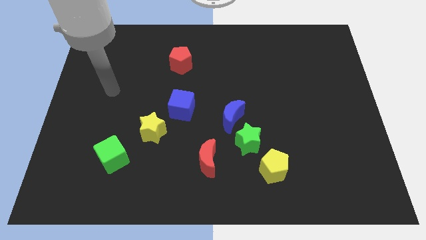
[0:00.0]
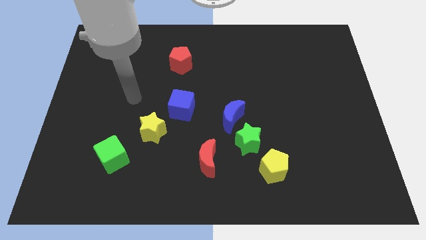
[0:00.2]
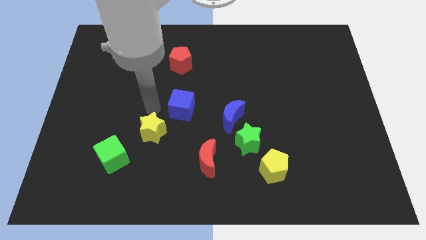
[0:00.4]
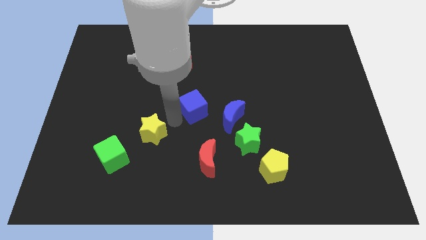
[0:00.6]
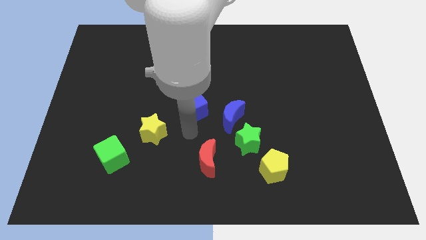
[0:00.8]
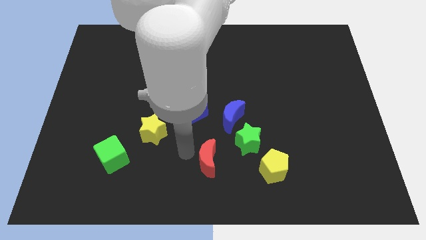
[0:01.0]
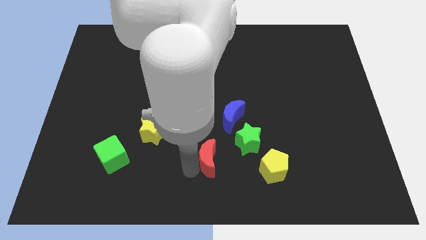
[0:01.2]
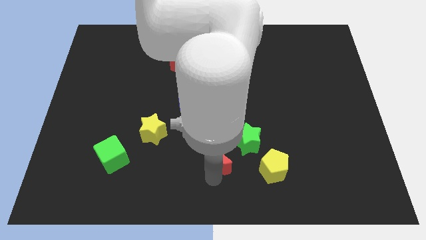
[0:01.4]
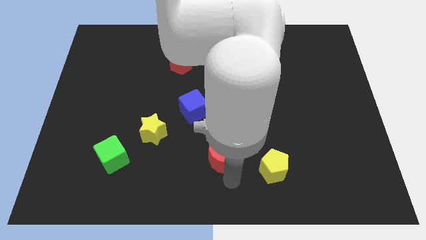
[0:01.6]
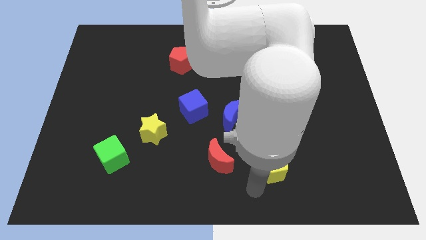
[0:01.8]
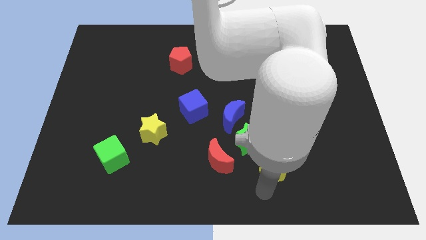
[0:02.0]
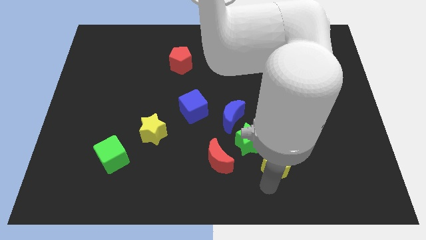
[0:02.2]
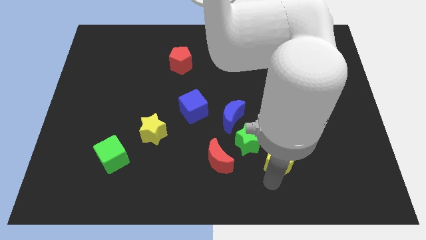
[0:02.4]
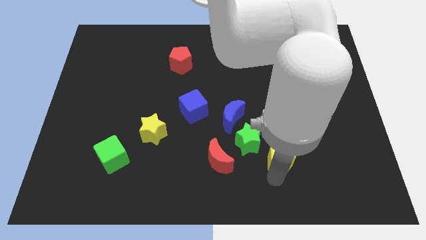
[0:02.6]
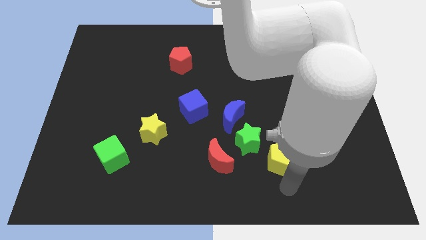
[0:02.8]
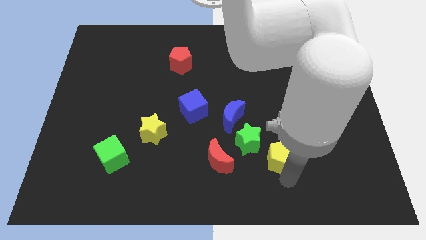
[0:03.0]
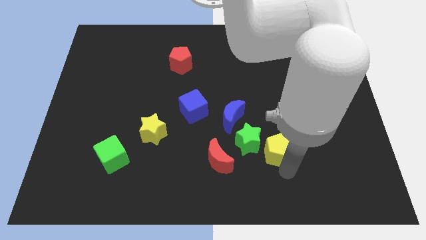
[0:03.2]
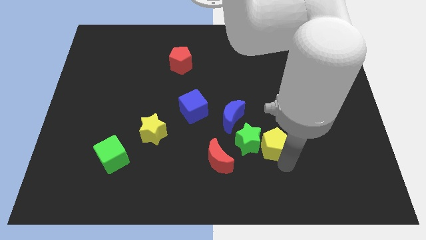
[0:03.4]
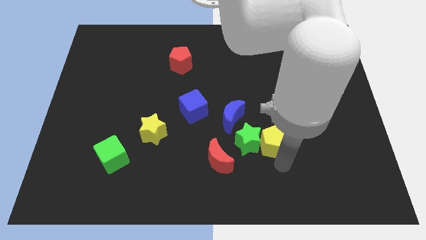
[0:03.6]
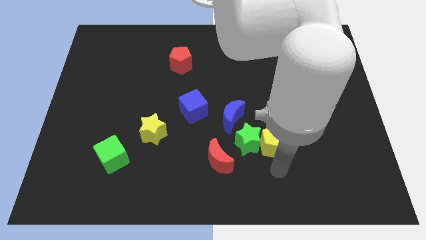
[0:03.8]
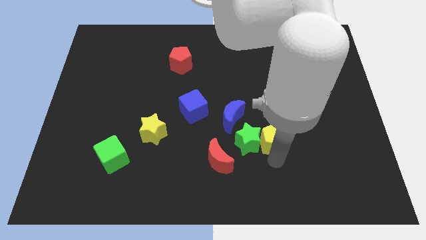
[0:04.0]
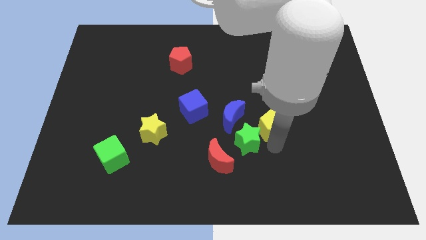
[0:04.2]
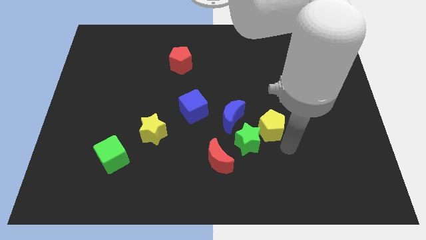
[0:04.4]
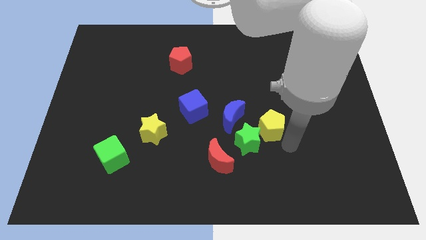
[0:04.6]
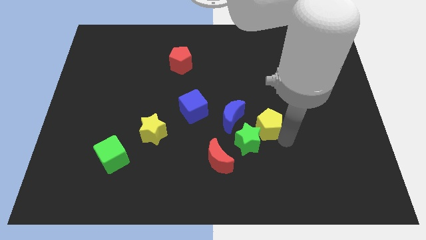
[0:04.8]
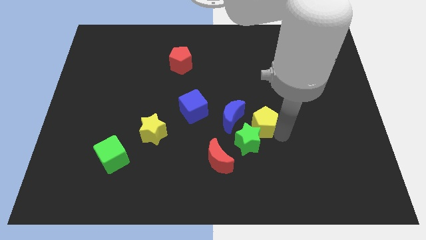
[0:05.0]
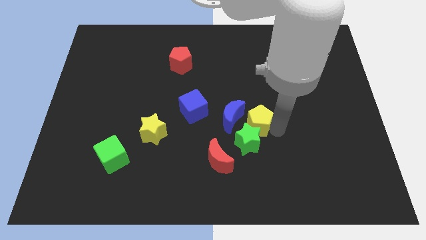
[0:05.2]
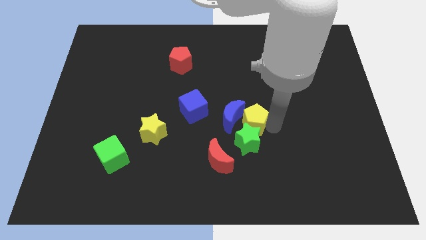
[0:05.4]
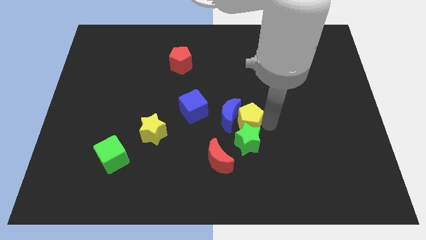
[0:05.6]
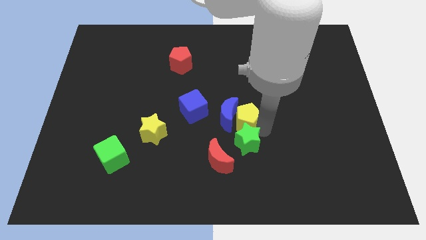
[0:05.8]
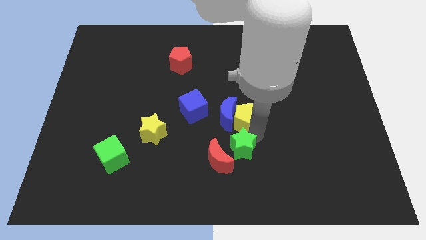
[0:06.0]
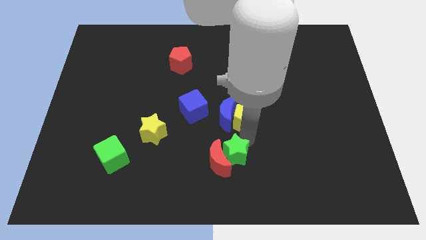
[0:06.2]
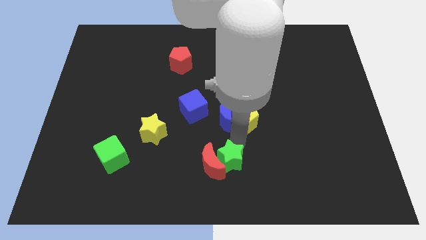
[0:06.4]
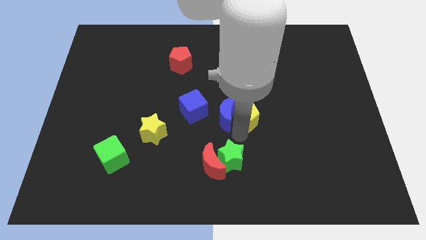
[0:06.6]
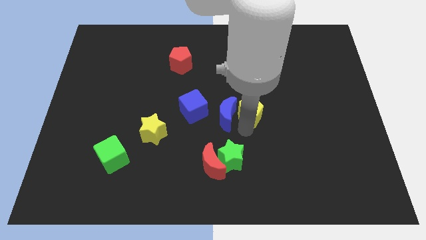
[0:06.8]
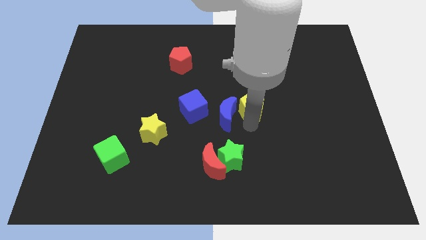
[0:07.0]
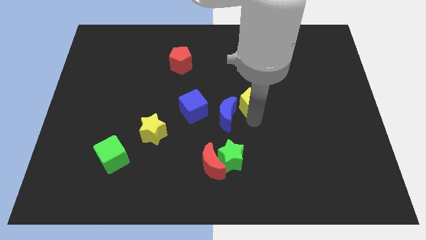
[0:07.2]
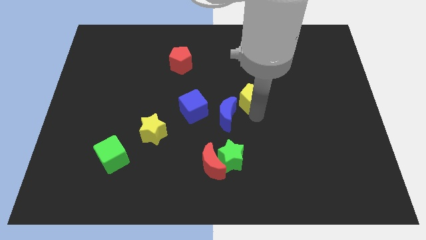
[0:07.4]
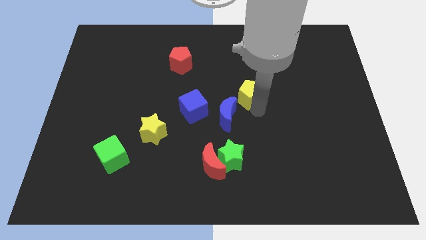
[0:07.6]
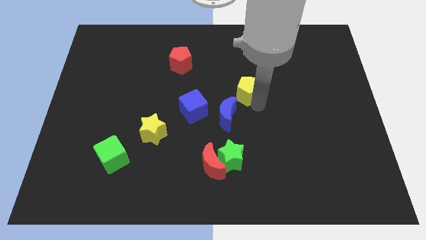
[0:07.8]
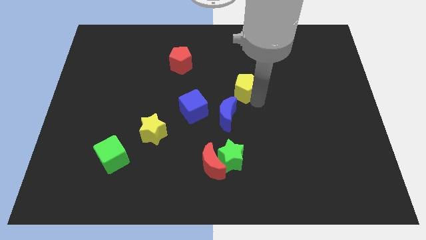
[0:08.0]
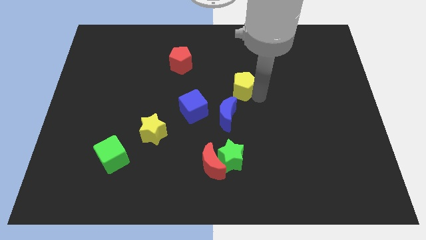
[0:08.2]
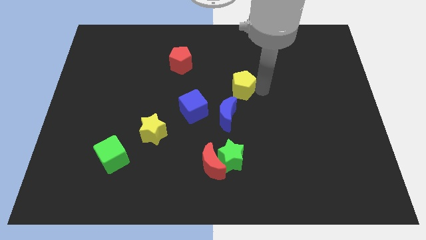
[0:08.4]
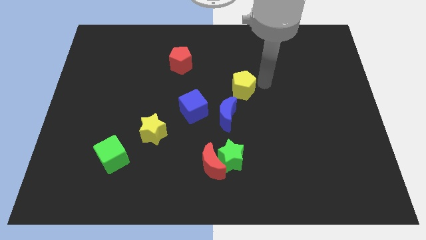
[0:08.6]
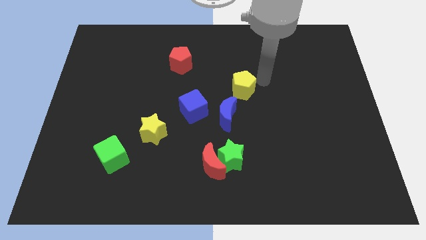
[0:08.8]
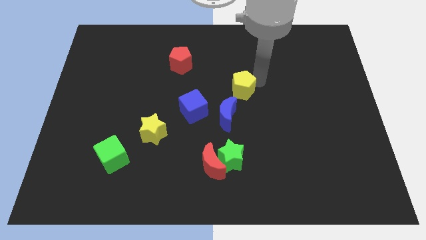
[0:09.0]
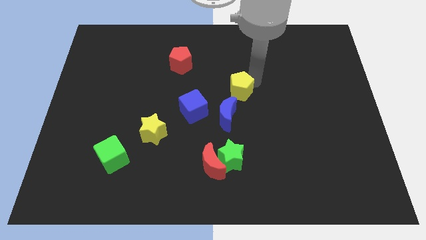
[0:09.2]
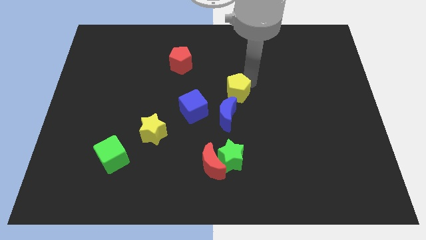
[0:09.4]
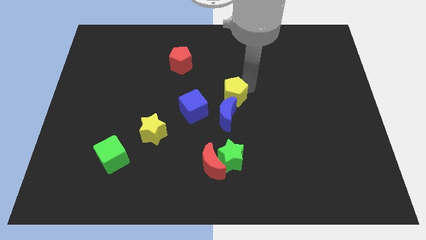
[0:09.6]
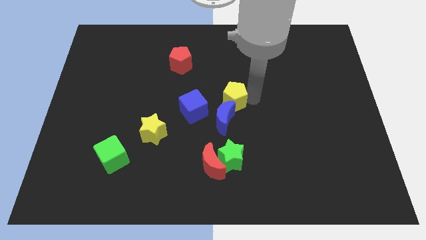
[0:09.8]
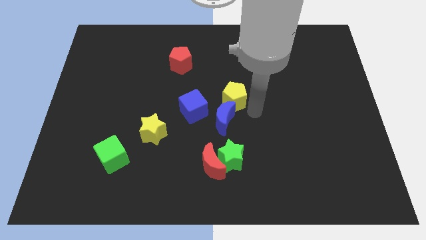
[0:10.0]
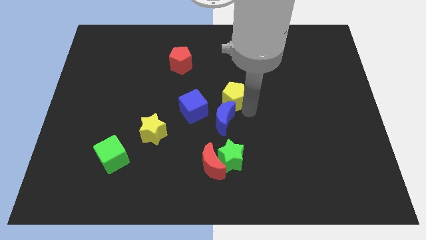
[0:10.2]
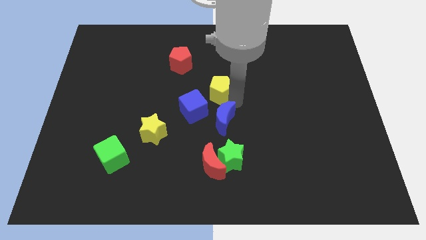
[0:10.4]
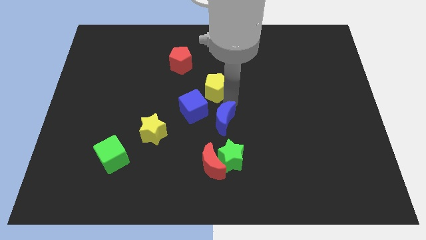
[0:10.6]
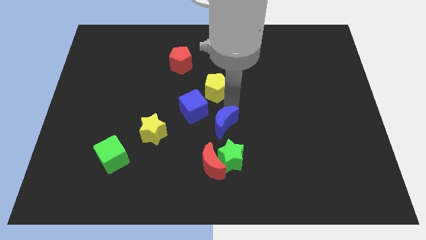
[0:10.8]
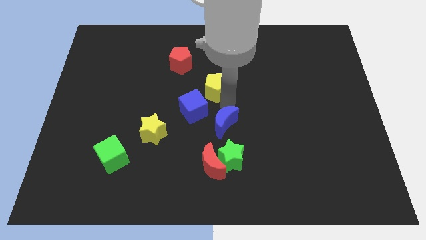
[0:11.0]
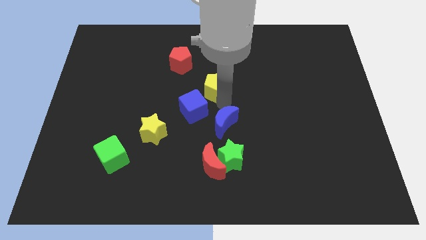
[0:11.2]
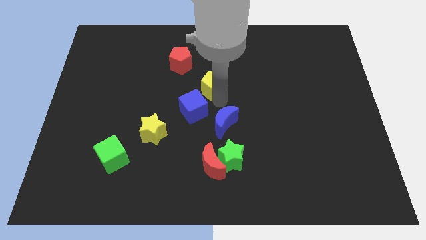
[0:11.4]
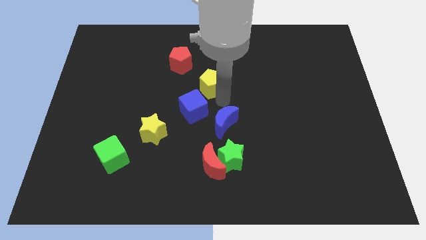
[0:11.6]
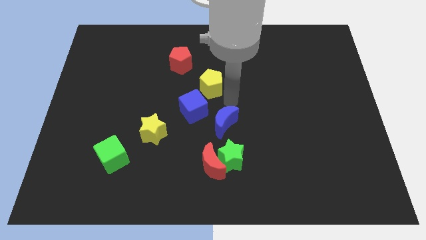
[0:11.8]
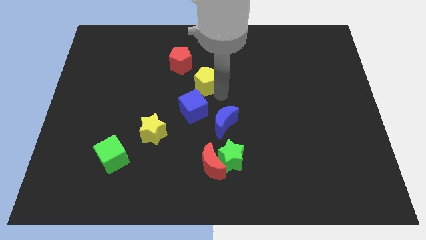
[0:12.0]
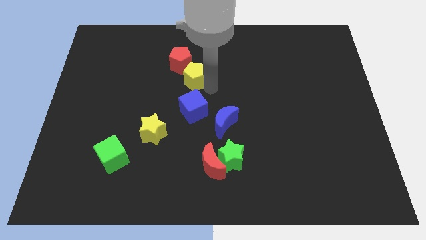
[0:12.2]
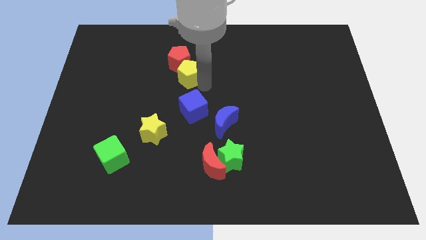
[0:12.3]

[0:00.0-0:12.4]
move the yellow pentagon next to the red pentagon

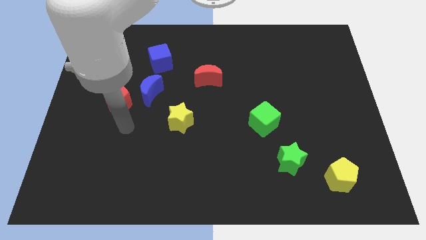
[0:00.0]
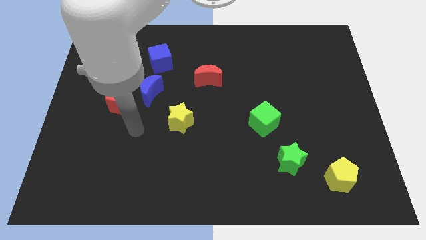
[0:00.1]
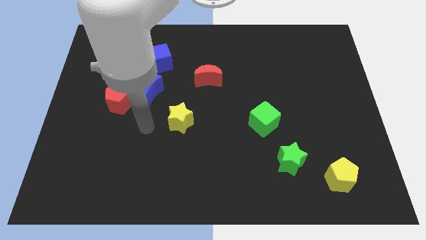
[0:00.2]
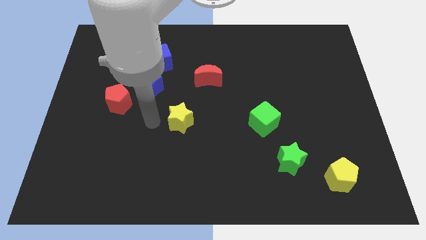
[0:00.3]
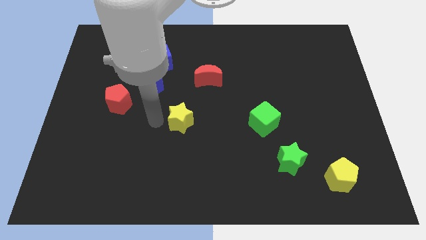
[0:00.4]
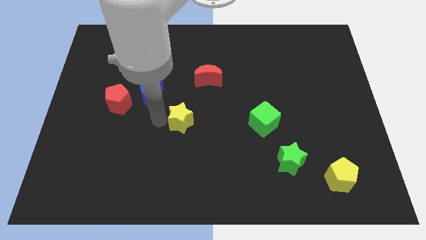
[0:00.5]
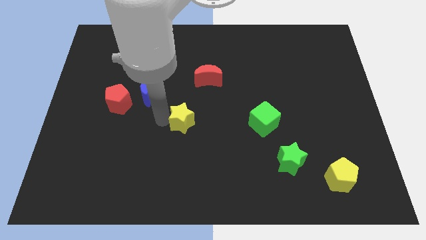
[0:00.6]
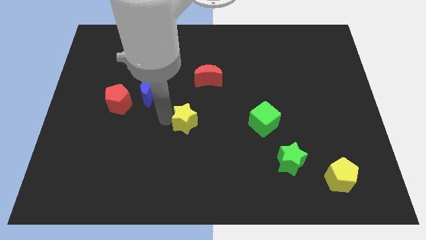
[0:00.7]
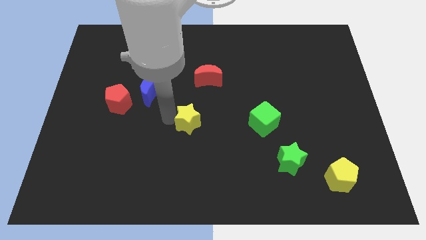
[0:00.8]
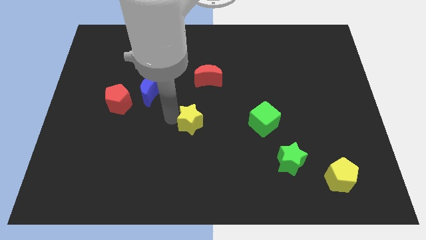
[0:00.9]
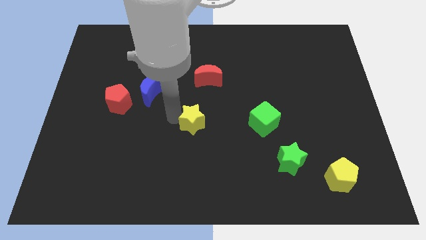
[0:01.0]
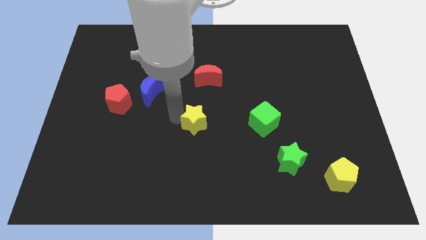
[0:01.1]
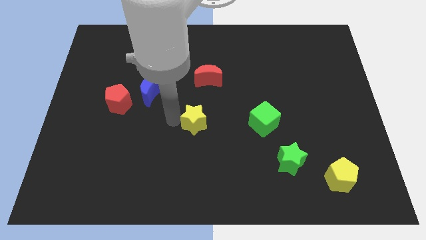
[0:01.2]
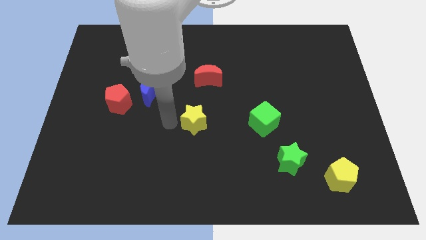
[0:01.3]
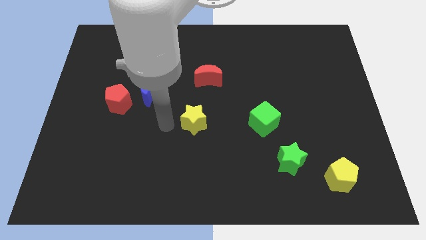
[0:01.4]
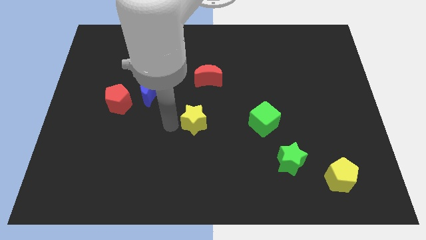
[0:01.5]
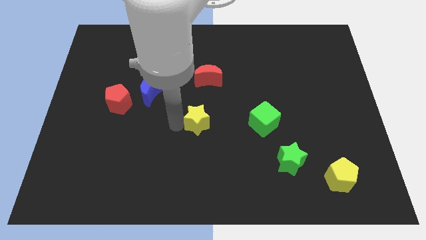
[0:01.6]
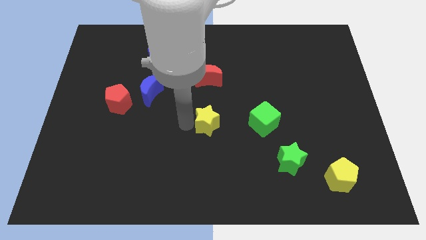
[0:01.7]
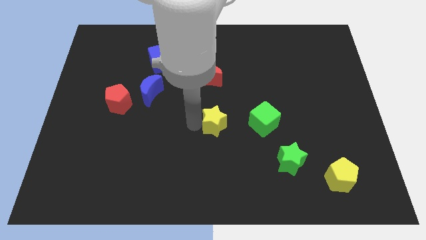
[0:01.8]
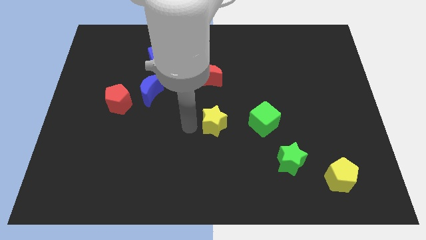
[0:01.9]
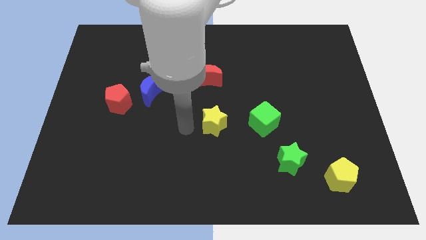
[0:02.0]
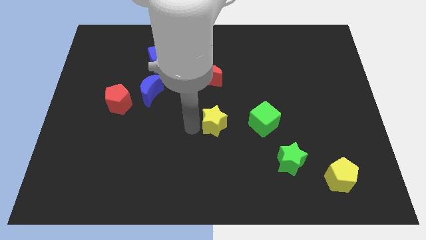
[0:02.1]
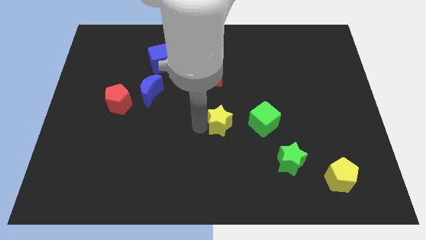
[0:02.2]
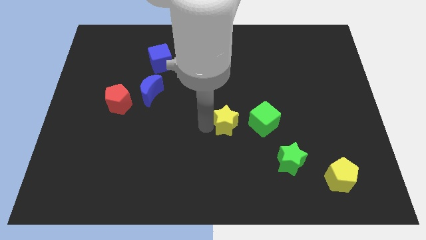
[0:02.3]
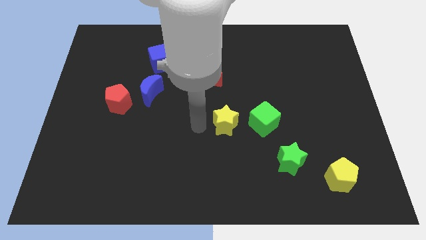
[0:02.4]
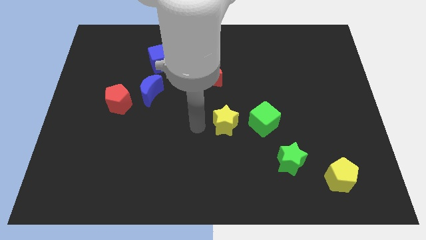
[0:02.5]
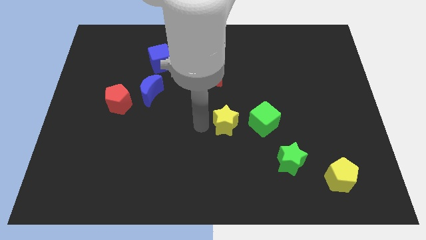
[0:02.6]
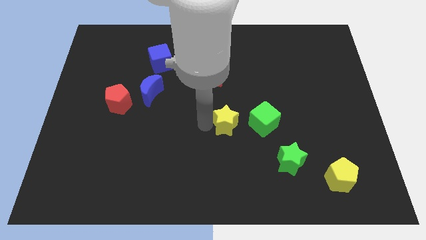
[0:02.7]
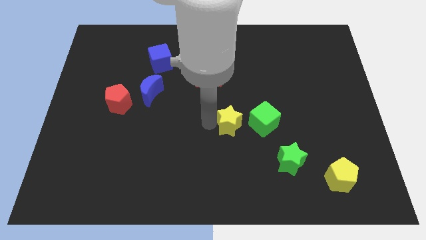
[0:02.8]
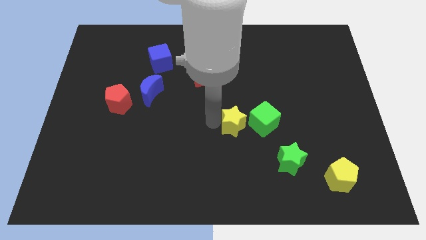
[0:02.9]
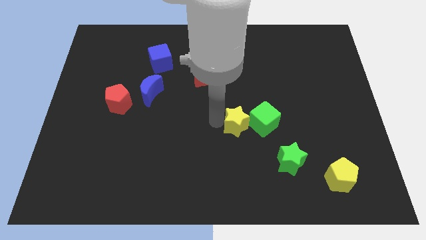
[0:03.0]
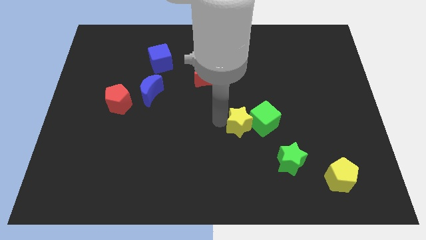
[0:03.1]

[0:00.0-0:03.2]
push the yellow star towards the green cube
